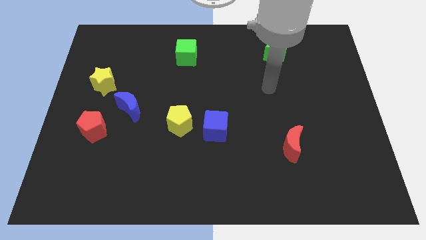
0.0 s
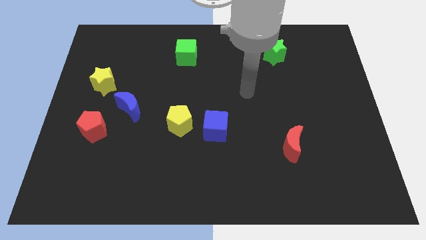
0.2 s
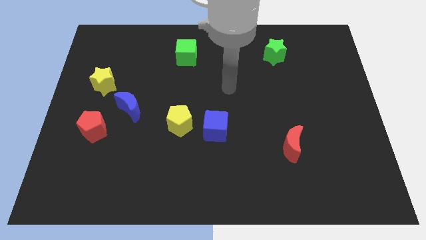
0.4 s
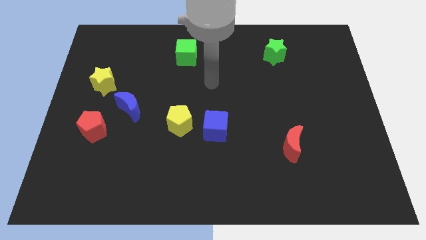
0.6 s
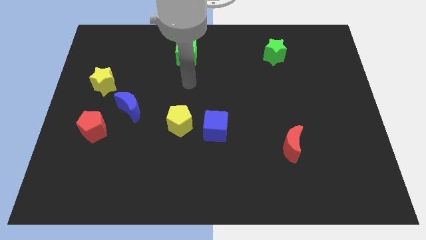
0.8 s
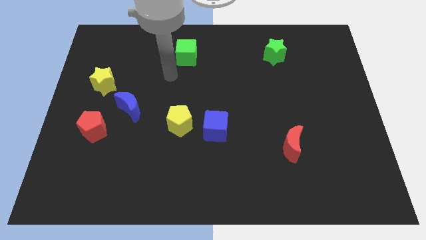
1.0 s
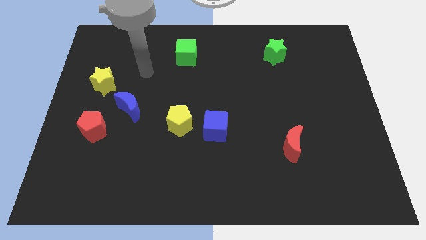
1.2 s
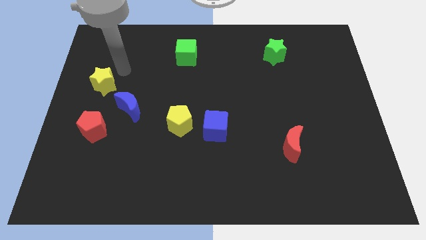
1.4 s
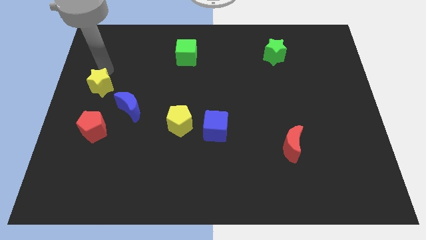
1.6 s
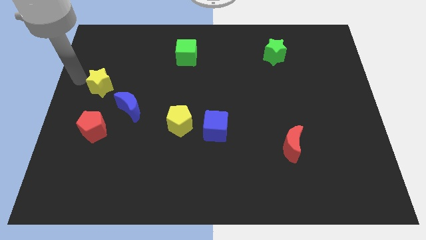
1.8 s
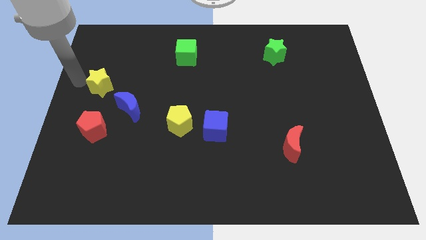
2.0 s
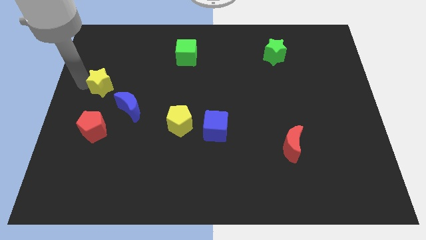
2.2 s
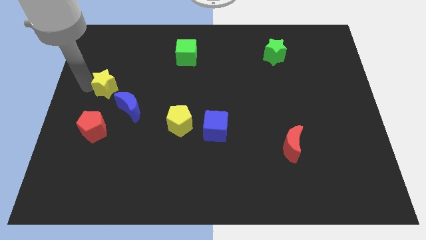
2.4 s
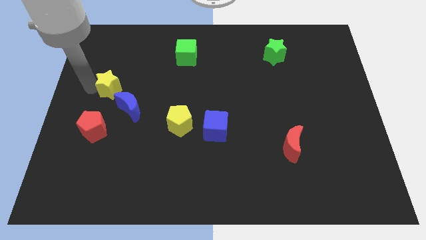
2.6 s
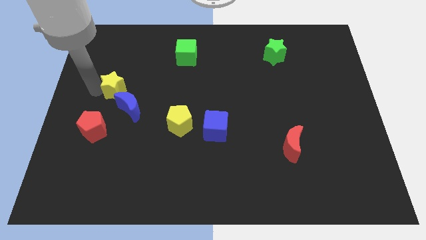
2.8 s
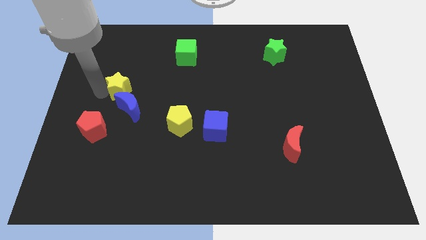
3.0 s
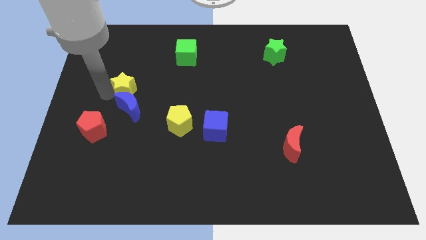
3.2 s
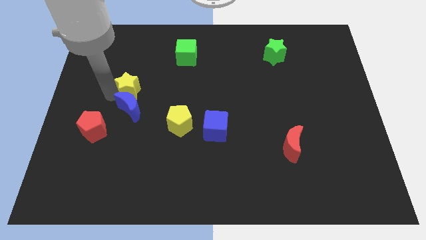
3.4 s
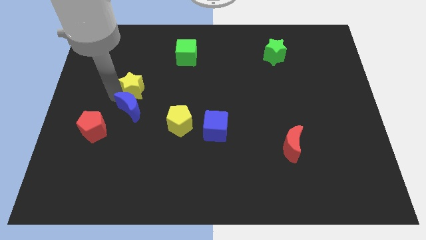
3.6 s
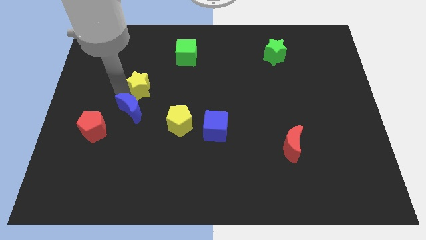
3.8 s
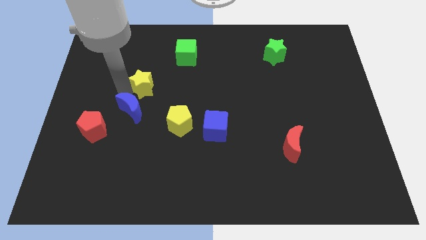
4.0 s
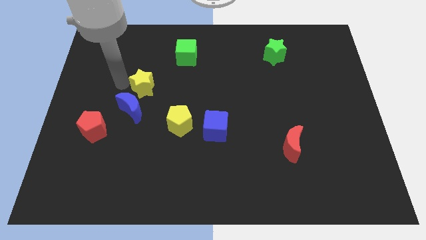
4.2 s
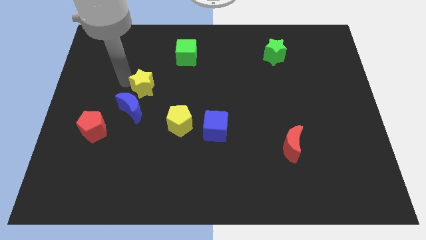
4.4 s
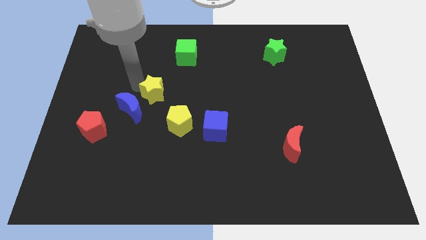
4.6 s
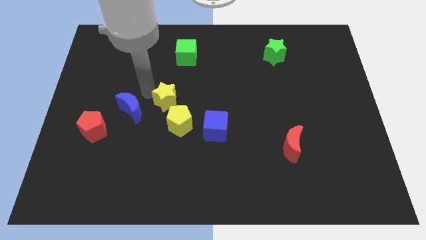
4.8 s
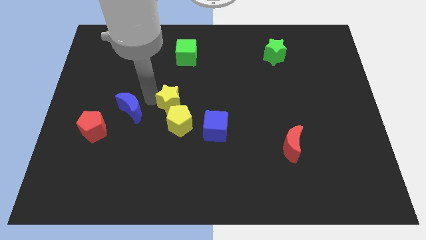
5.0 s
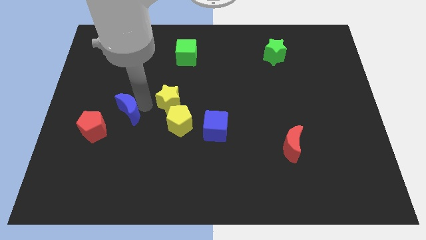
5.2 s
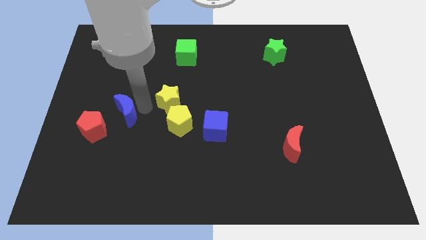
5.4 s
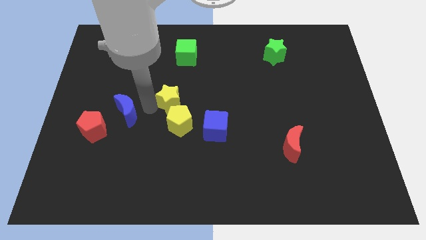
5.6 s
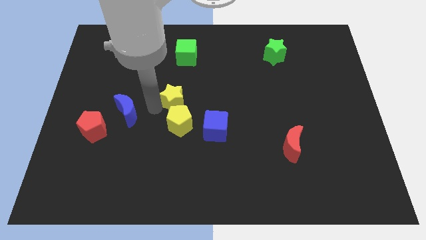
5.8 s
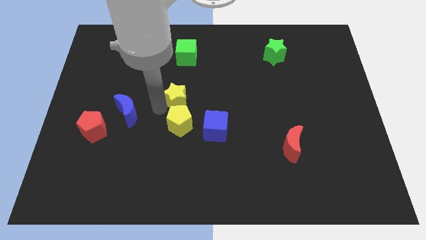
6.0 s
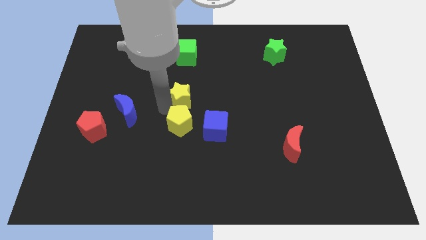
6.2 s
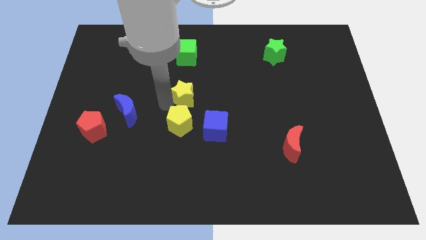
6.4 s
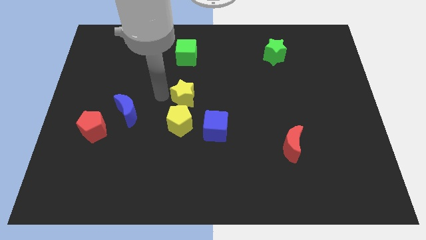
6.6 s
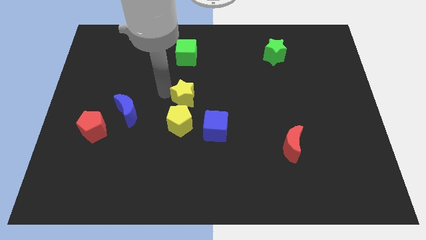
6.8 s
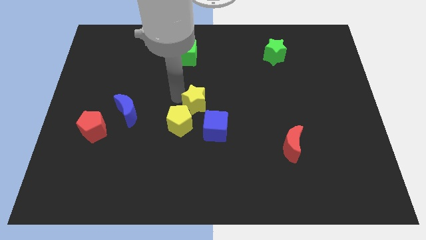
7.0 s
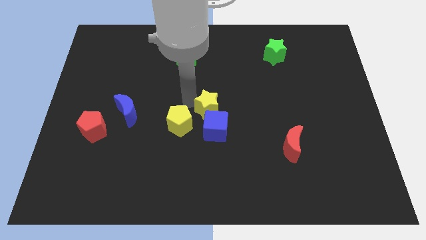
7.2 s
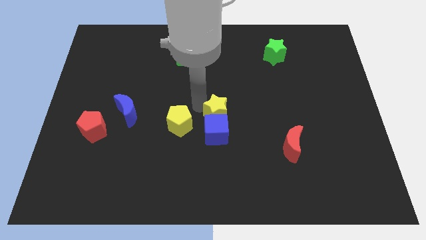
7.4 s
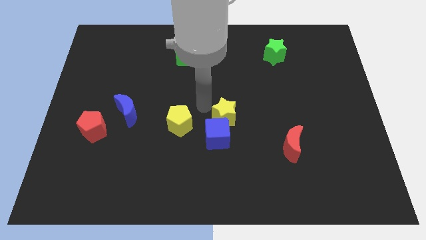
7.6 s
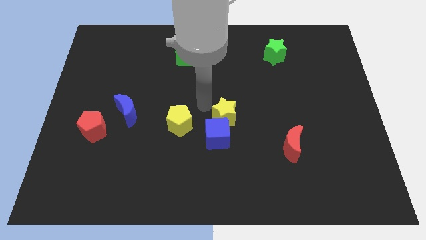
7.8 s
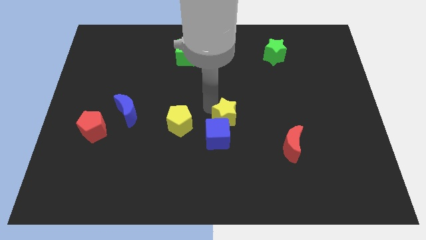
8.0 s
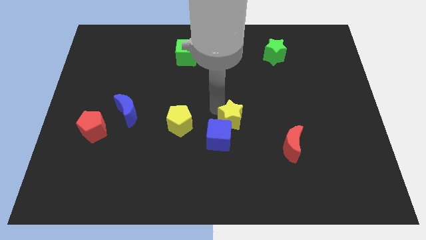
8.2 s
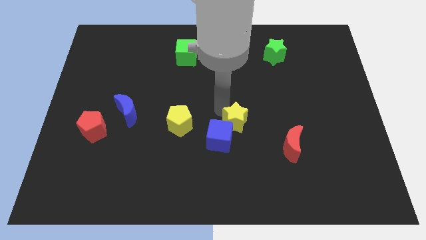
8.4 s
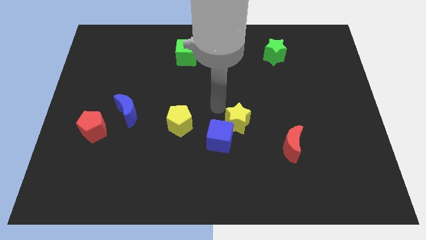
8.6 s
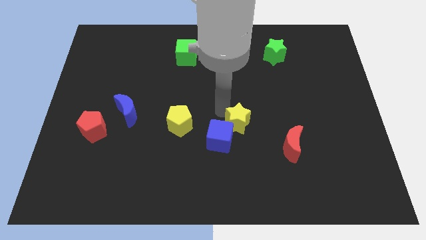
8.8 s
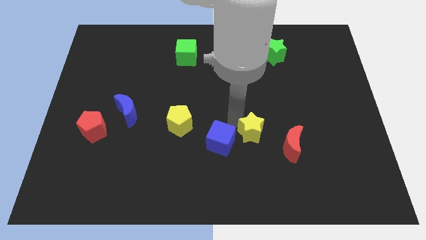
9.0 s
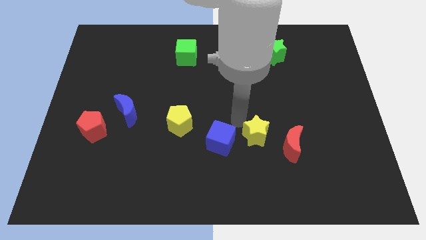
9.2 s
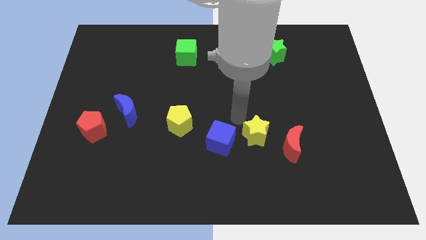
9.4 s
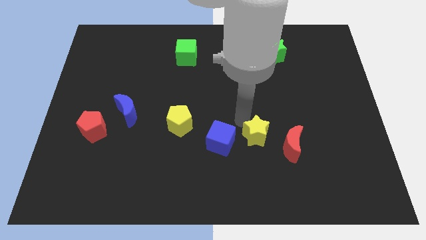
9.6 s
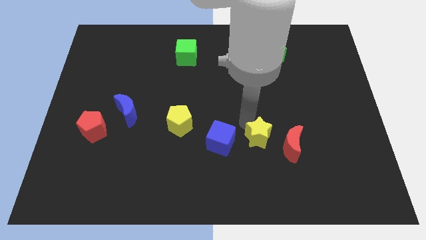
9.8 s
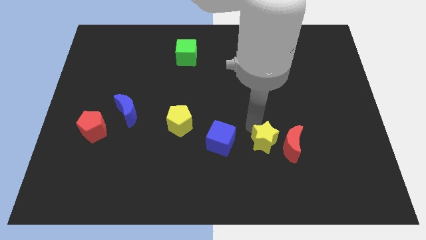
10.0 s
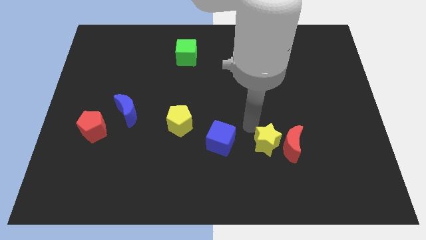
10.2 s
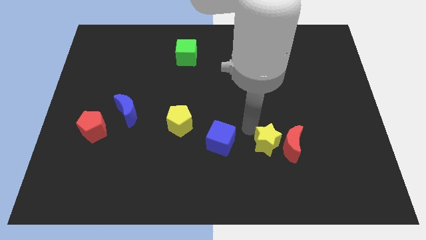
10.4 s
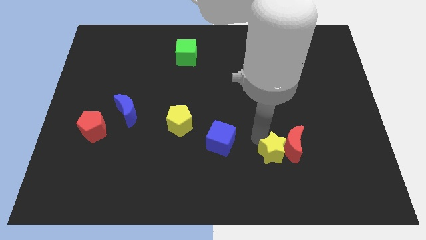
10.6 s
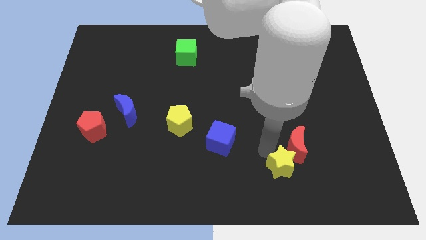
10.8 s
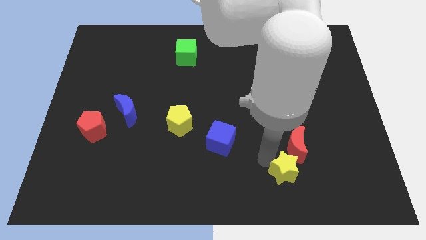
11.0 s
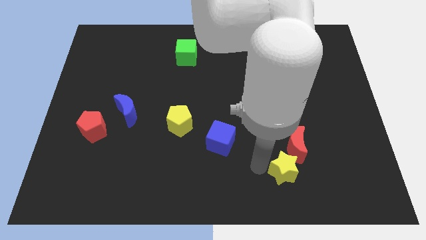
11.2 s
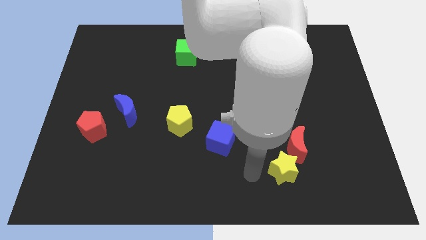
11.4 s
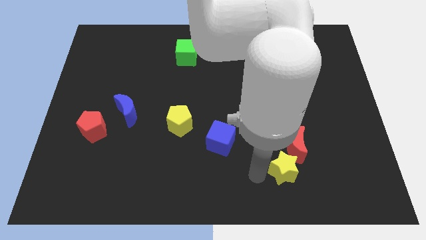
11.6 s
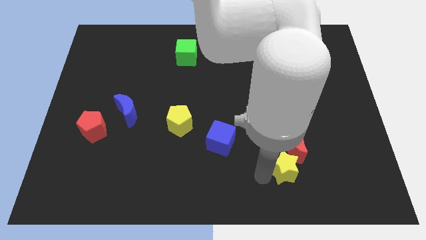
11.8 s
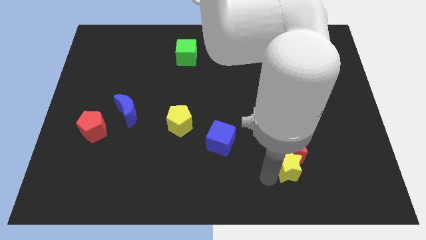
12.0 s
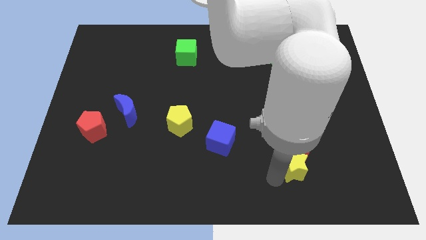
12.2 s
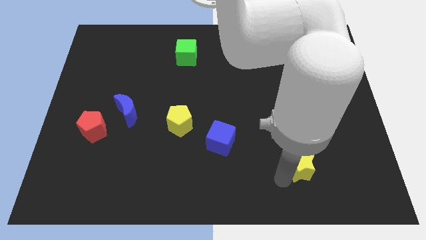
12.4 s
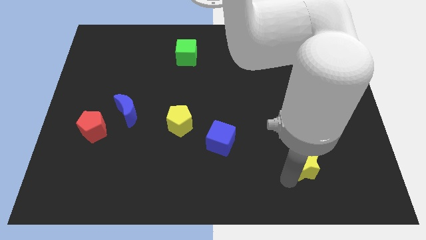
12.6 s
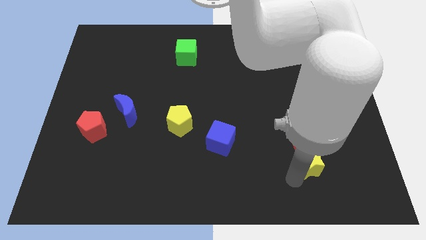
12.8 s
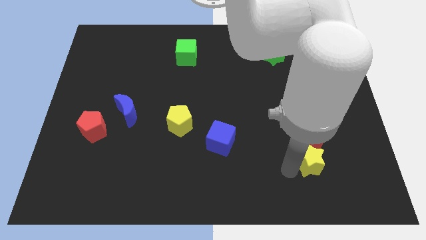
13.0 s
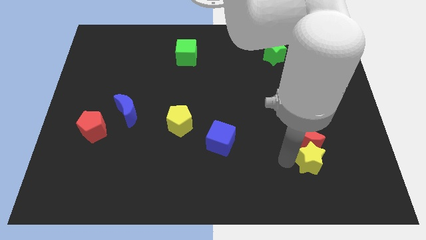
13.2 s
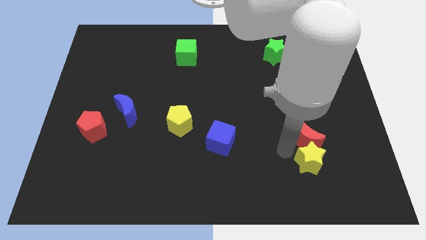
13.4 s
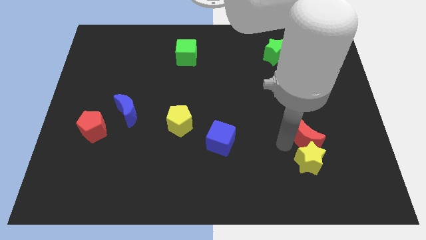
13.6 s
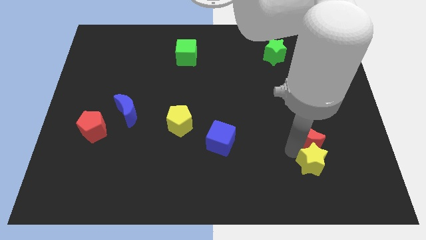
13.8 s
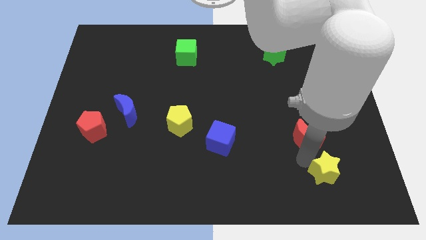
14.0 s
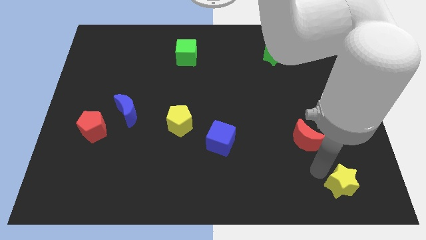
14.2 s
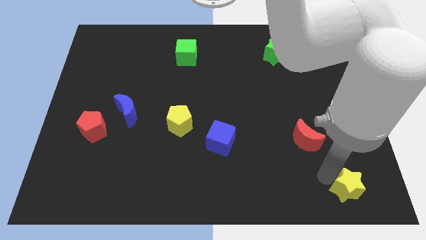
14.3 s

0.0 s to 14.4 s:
put the yellow star to the bottom right
